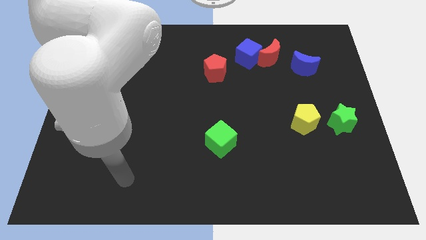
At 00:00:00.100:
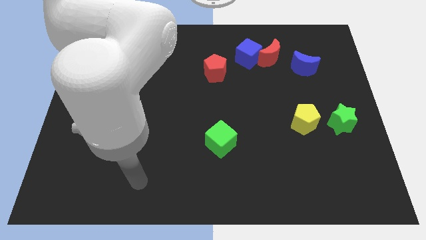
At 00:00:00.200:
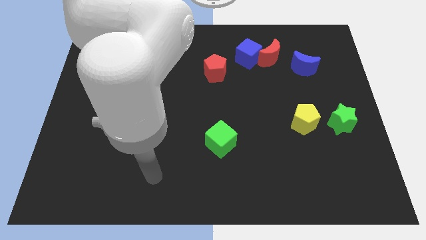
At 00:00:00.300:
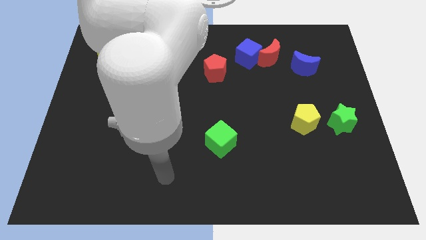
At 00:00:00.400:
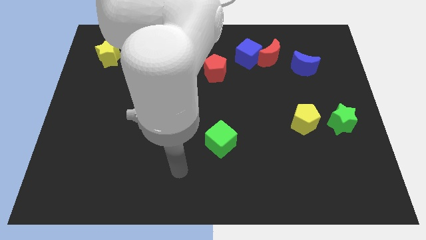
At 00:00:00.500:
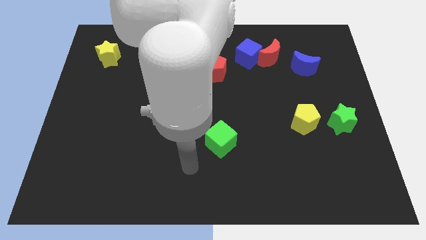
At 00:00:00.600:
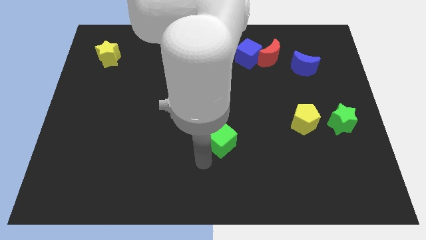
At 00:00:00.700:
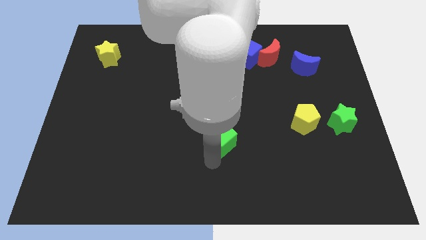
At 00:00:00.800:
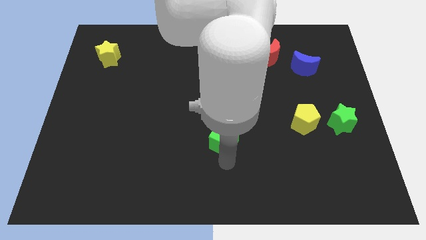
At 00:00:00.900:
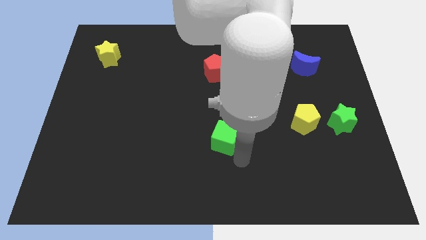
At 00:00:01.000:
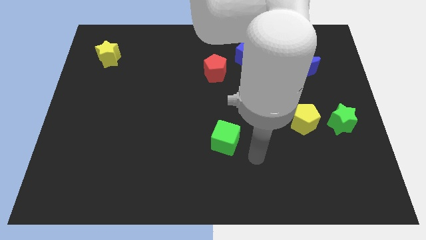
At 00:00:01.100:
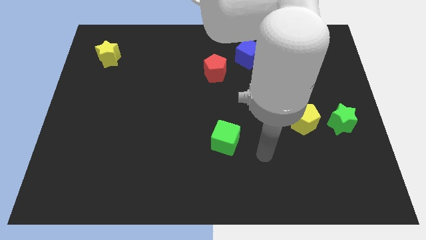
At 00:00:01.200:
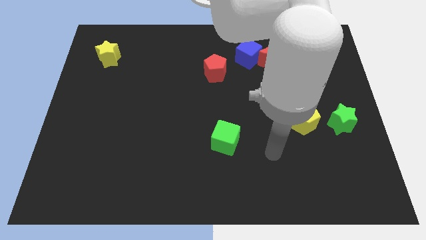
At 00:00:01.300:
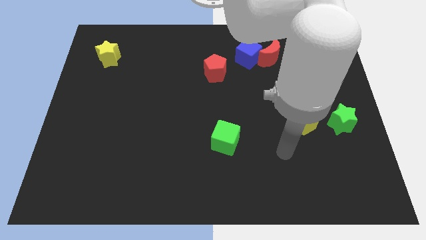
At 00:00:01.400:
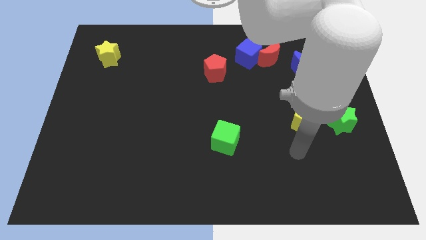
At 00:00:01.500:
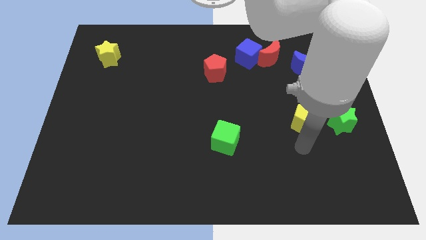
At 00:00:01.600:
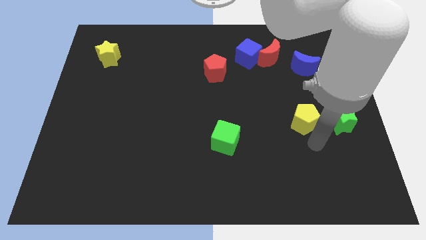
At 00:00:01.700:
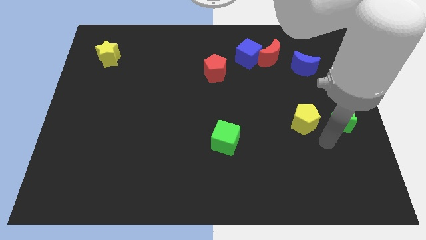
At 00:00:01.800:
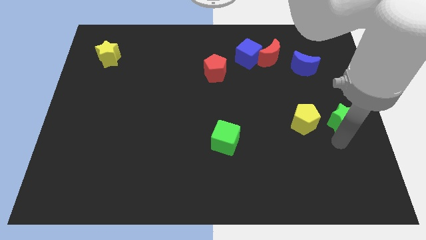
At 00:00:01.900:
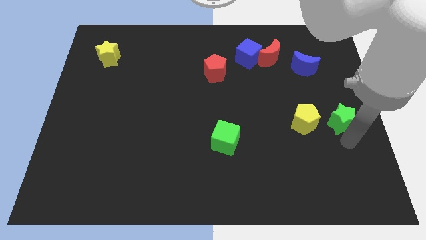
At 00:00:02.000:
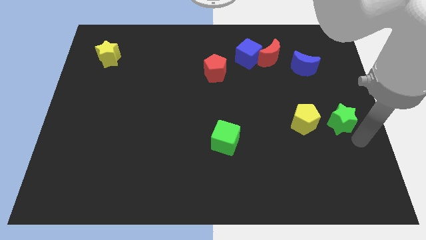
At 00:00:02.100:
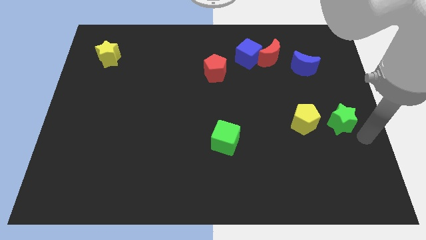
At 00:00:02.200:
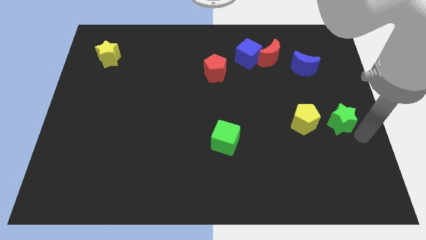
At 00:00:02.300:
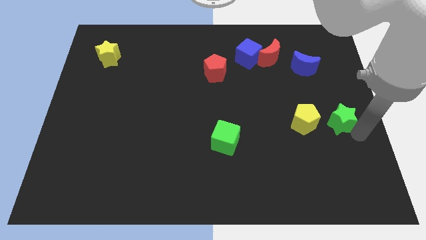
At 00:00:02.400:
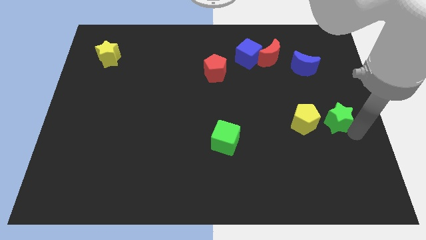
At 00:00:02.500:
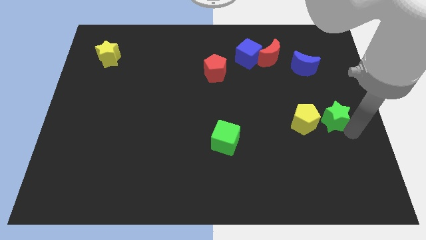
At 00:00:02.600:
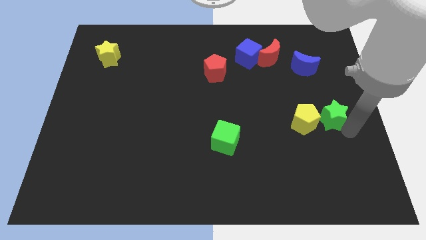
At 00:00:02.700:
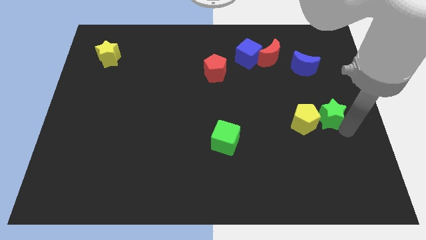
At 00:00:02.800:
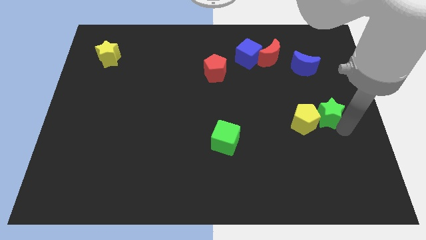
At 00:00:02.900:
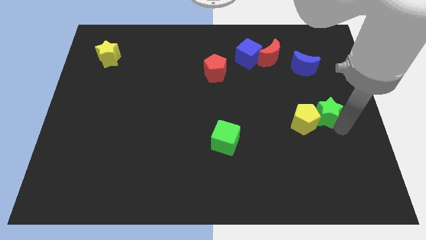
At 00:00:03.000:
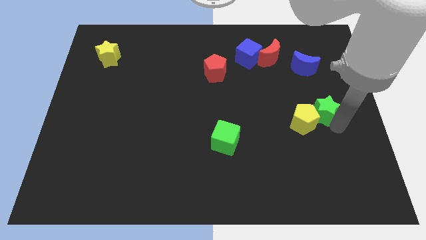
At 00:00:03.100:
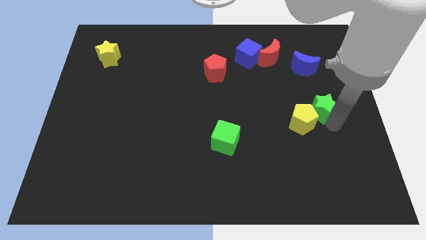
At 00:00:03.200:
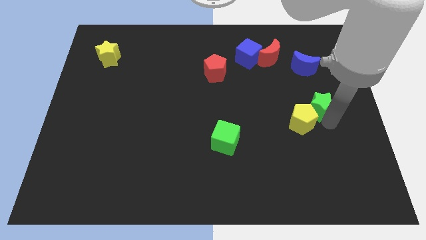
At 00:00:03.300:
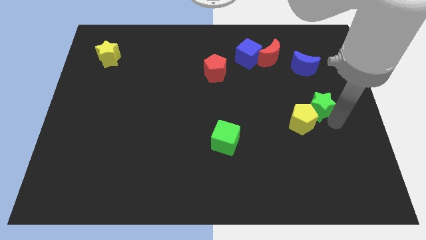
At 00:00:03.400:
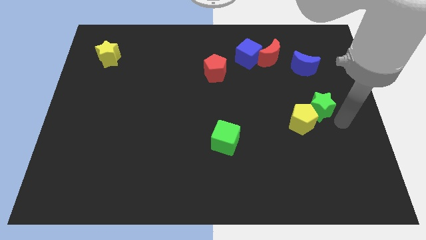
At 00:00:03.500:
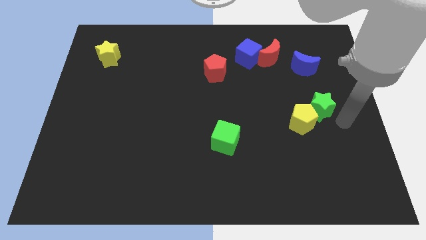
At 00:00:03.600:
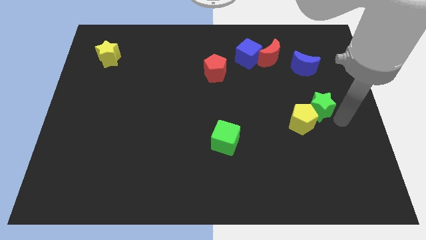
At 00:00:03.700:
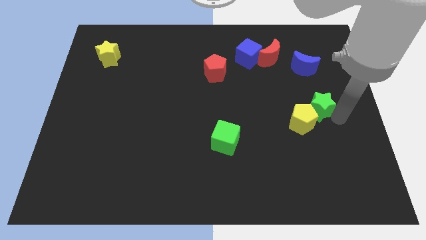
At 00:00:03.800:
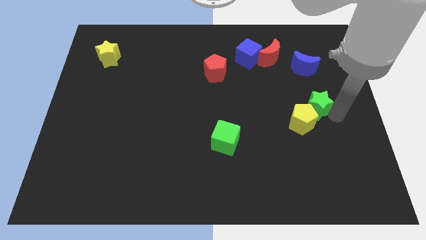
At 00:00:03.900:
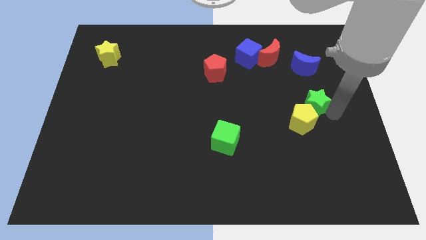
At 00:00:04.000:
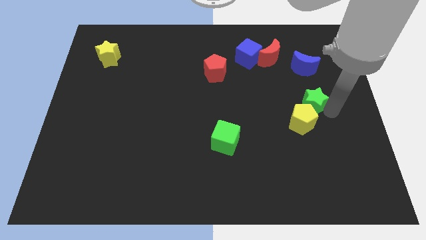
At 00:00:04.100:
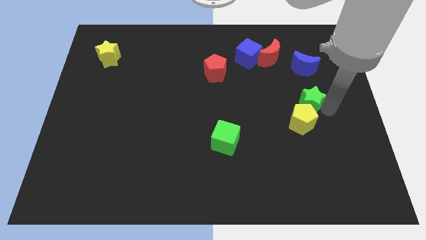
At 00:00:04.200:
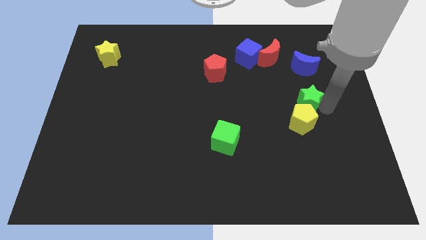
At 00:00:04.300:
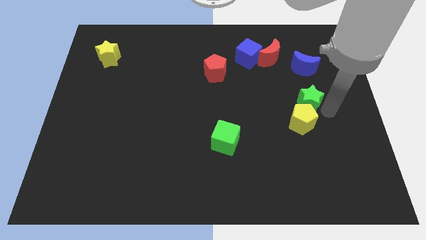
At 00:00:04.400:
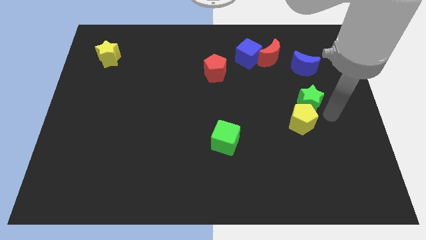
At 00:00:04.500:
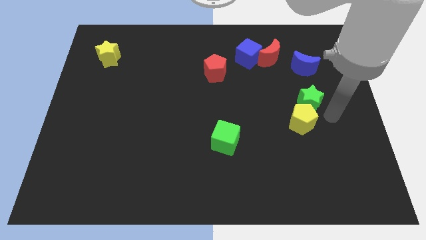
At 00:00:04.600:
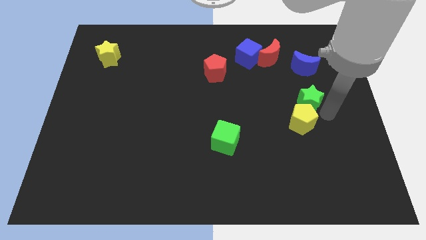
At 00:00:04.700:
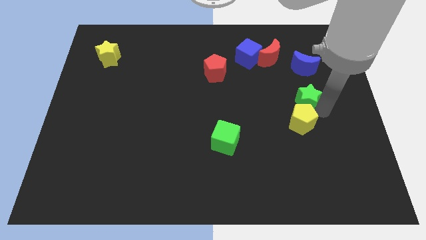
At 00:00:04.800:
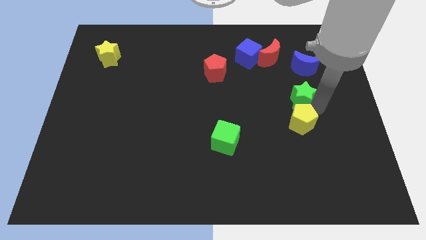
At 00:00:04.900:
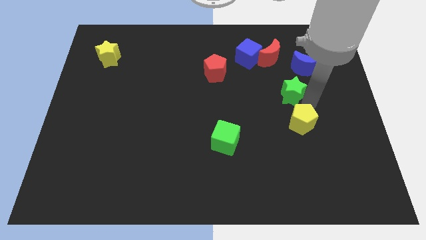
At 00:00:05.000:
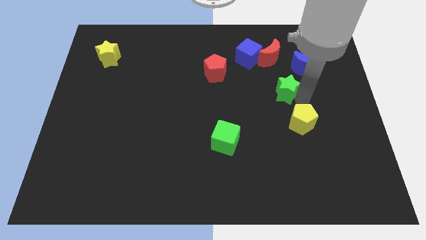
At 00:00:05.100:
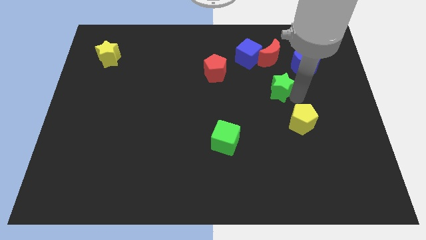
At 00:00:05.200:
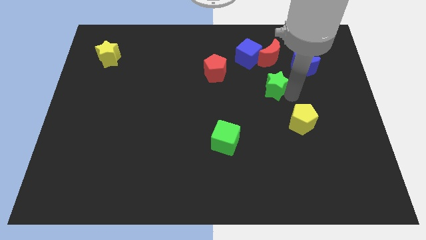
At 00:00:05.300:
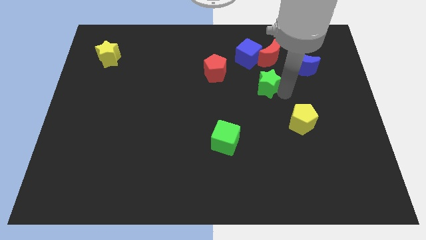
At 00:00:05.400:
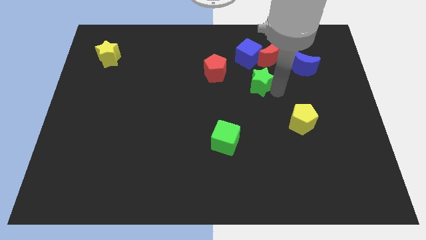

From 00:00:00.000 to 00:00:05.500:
push the green star to the right side of the red pentagon

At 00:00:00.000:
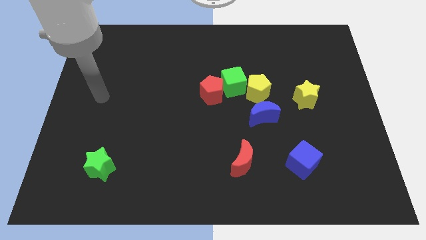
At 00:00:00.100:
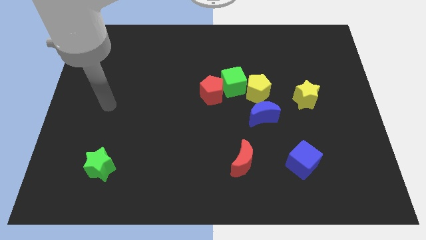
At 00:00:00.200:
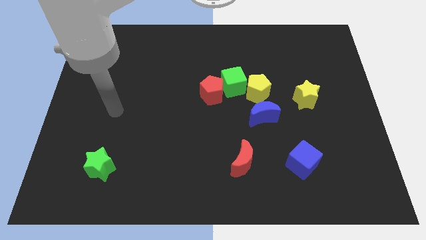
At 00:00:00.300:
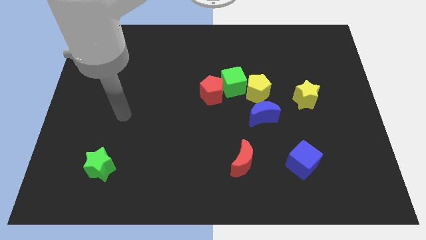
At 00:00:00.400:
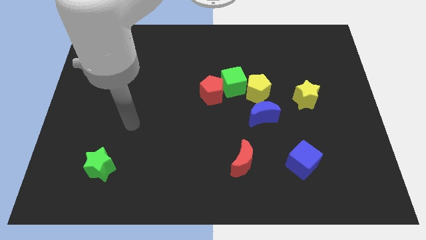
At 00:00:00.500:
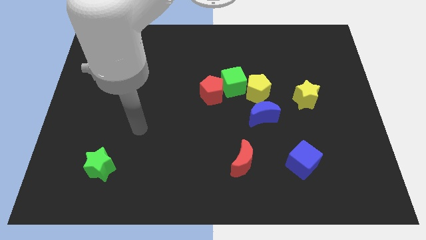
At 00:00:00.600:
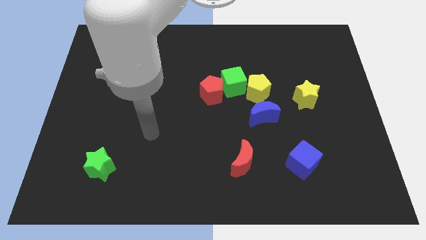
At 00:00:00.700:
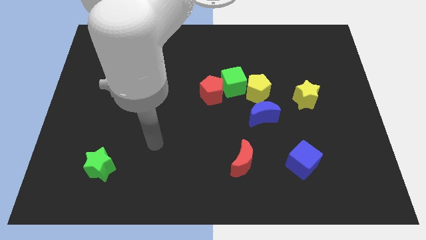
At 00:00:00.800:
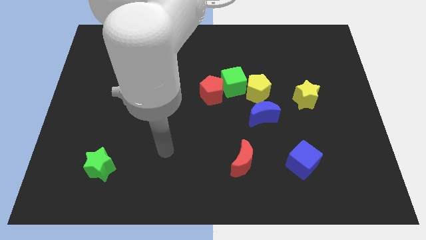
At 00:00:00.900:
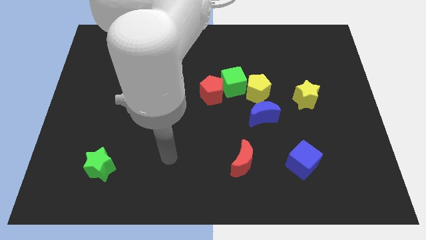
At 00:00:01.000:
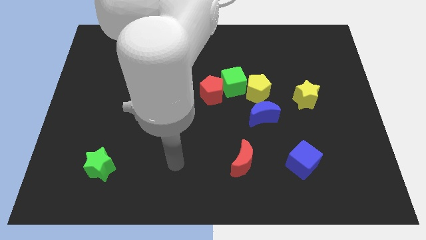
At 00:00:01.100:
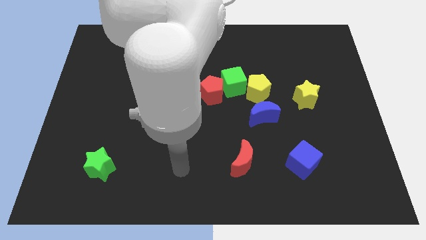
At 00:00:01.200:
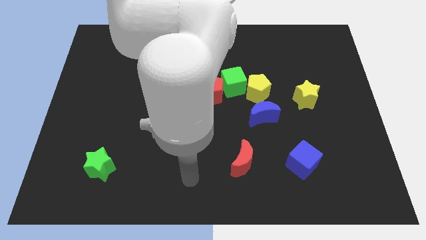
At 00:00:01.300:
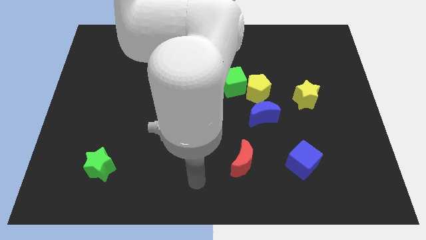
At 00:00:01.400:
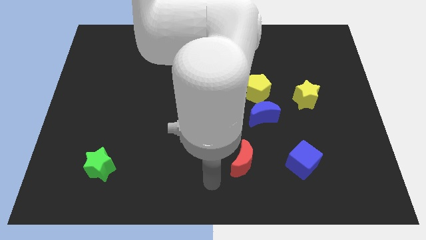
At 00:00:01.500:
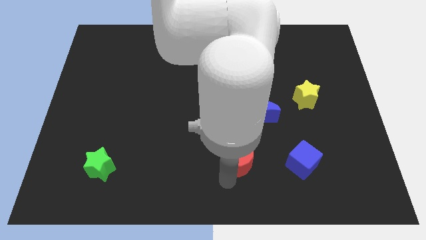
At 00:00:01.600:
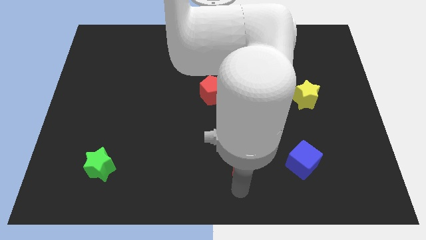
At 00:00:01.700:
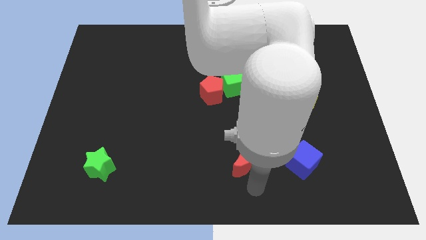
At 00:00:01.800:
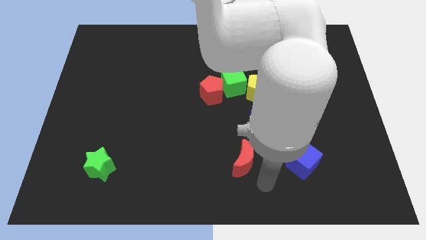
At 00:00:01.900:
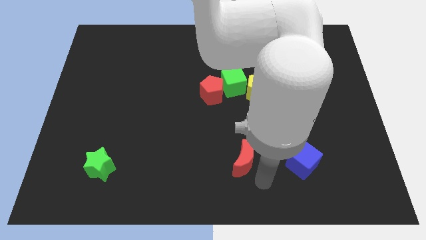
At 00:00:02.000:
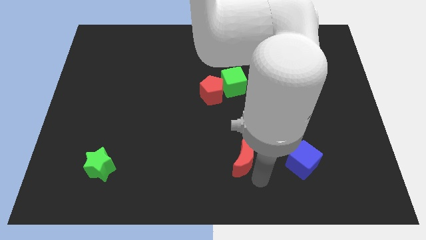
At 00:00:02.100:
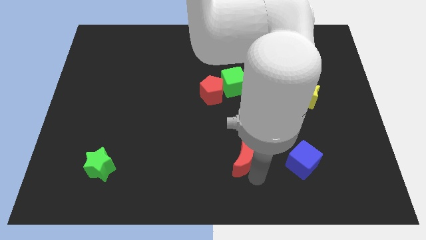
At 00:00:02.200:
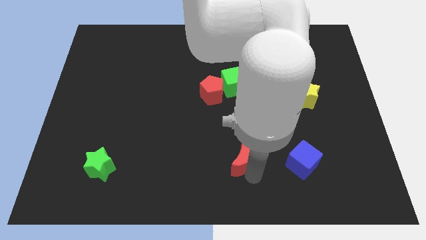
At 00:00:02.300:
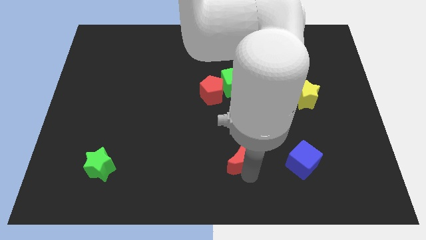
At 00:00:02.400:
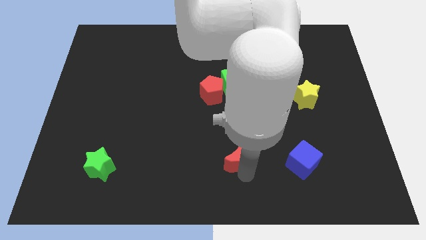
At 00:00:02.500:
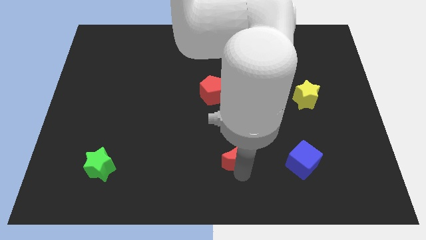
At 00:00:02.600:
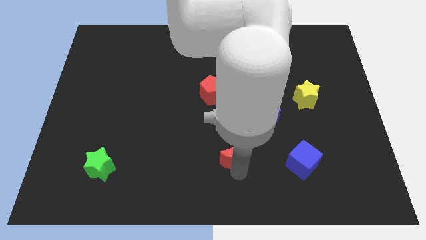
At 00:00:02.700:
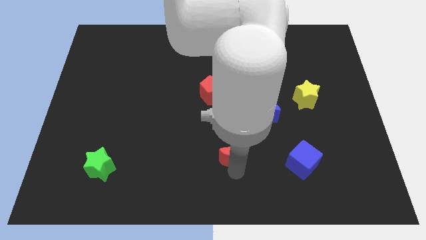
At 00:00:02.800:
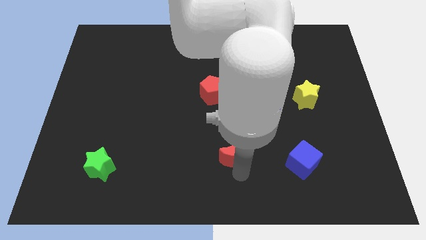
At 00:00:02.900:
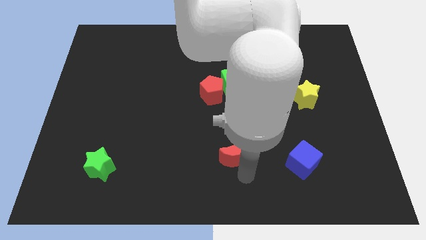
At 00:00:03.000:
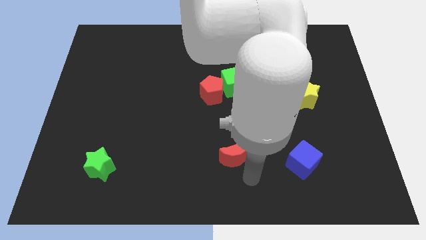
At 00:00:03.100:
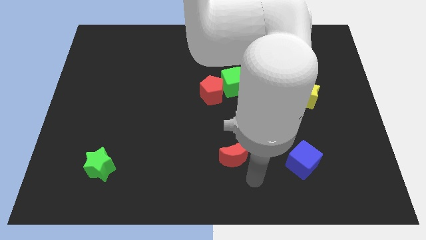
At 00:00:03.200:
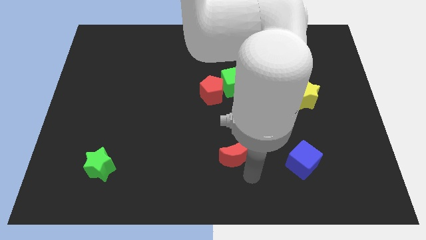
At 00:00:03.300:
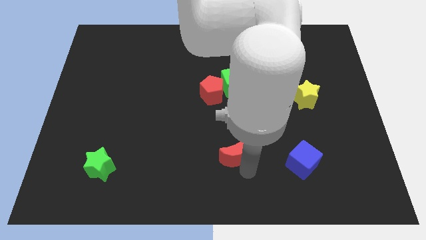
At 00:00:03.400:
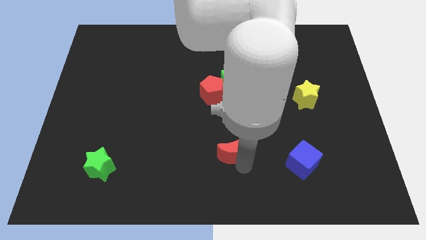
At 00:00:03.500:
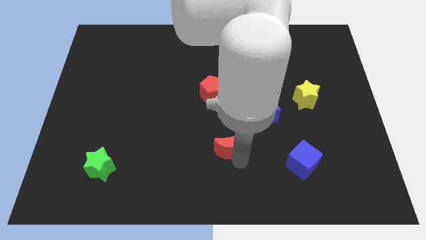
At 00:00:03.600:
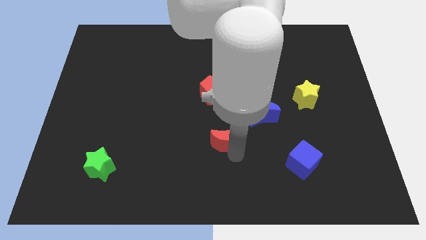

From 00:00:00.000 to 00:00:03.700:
put the red moon below the red pentagon
